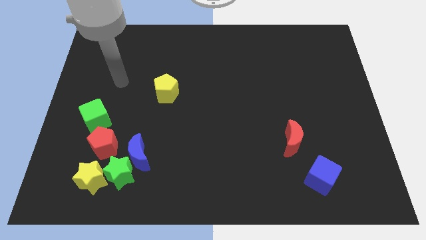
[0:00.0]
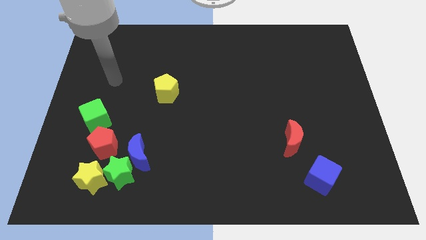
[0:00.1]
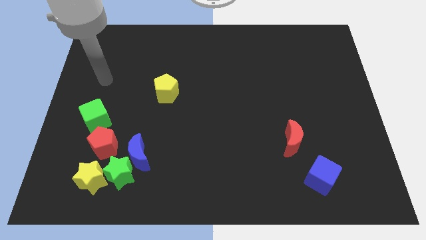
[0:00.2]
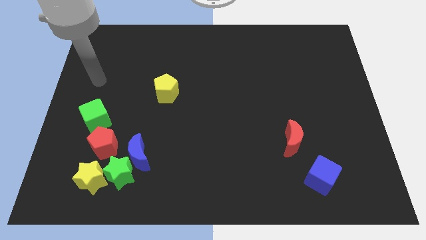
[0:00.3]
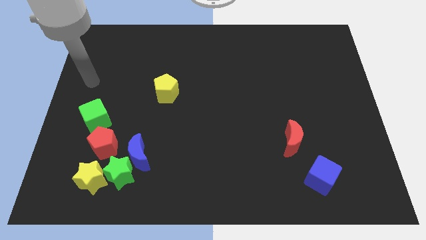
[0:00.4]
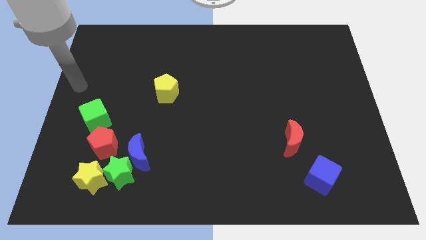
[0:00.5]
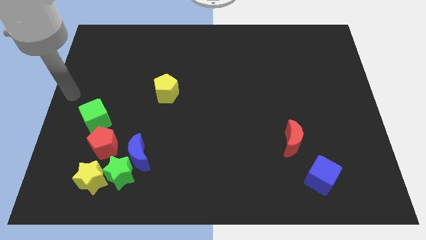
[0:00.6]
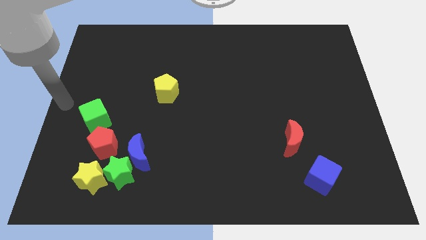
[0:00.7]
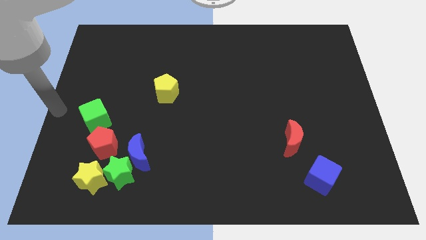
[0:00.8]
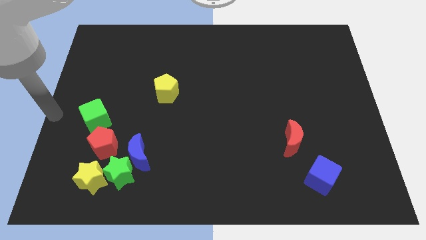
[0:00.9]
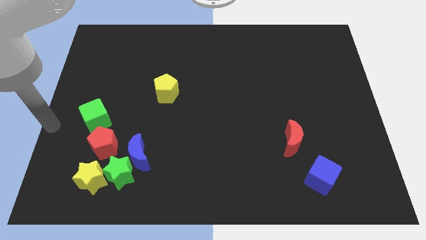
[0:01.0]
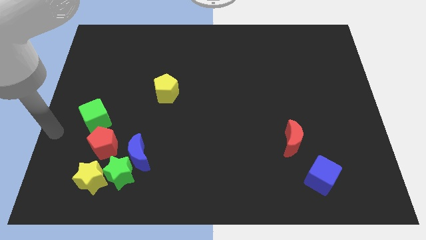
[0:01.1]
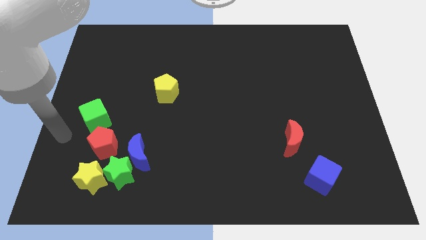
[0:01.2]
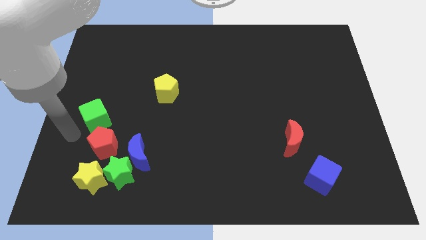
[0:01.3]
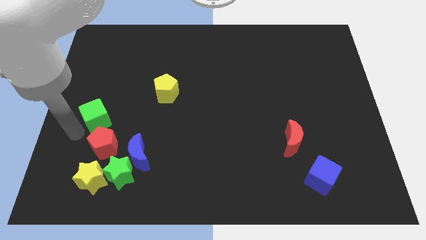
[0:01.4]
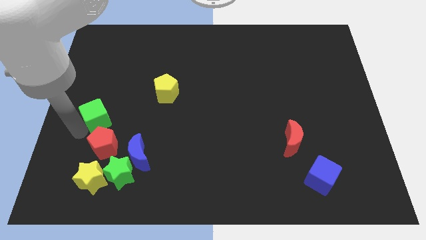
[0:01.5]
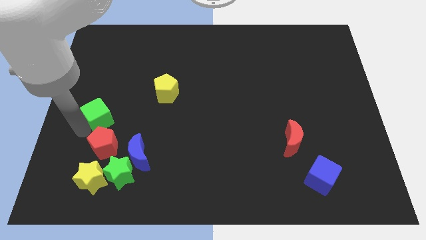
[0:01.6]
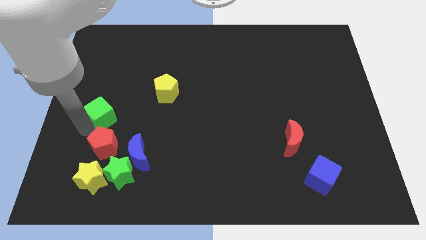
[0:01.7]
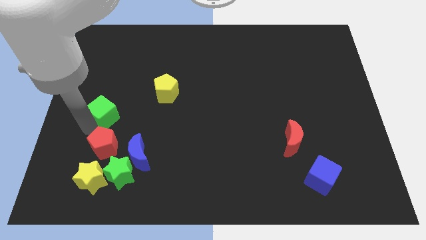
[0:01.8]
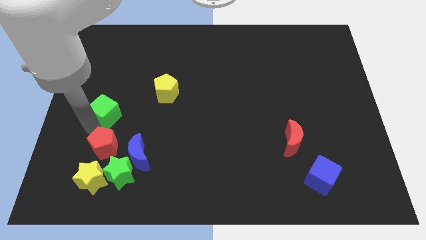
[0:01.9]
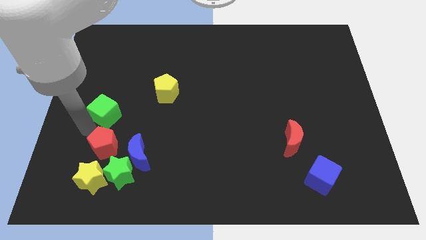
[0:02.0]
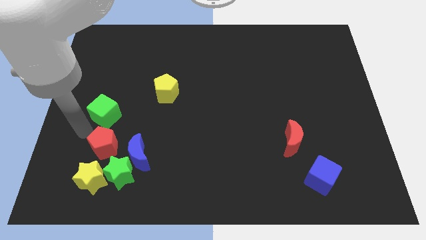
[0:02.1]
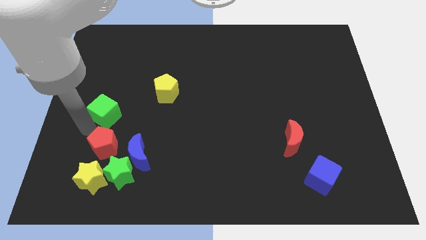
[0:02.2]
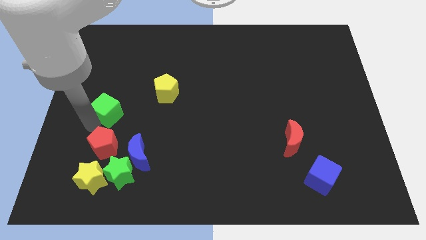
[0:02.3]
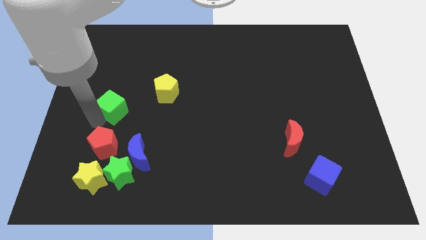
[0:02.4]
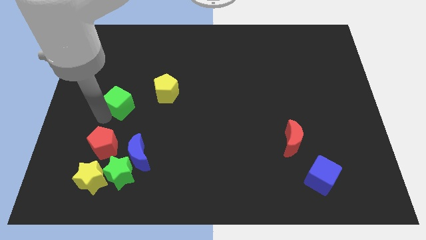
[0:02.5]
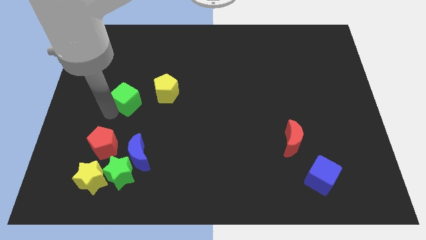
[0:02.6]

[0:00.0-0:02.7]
slide the green cube up and to the right diagonally a little bit

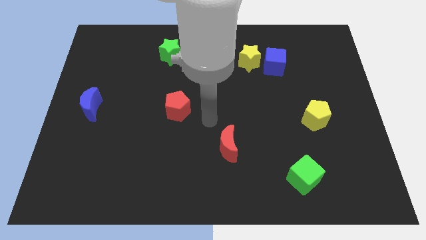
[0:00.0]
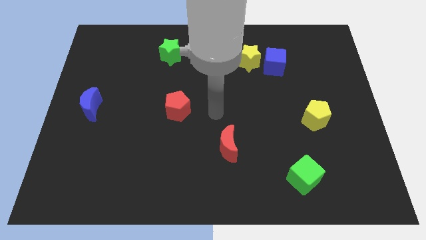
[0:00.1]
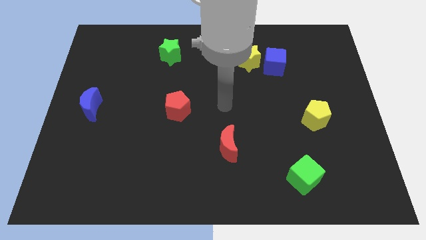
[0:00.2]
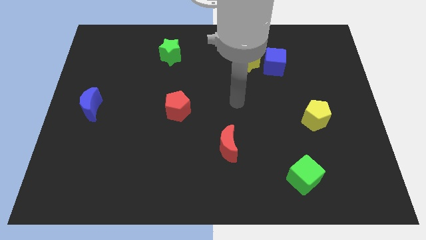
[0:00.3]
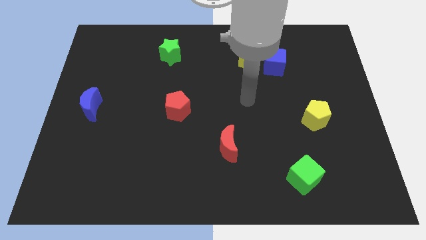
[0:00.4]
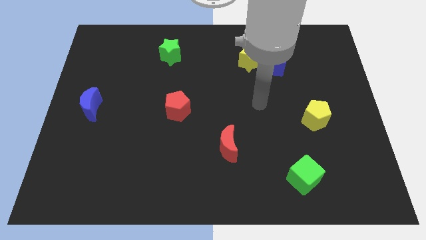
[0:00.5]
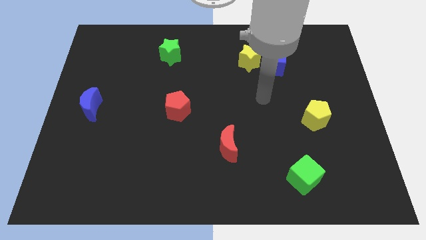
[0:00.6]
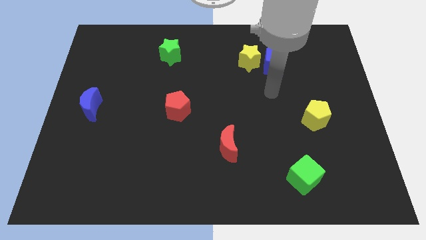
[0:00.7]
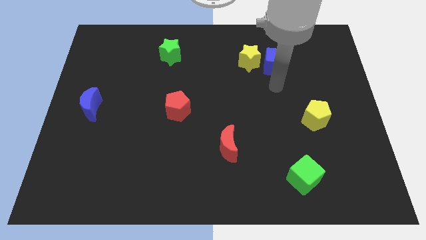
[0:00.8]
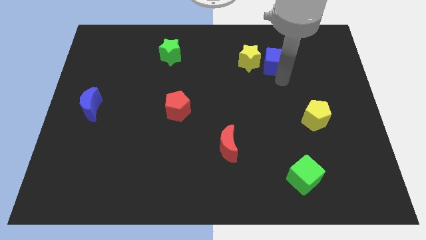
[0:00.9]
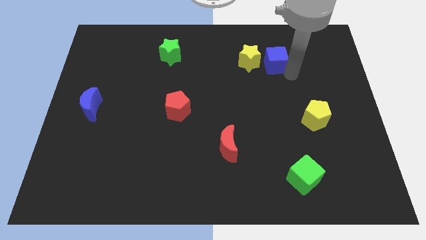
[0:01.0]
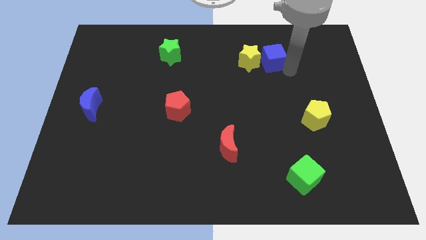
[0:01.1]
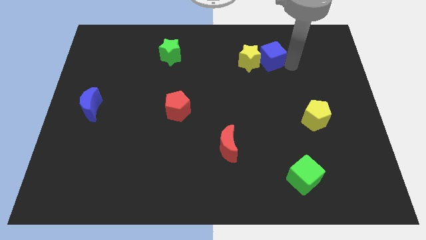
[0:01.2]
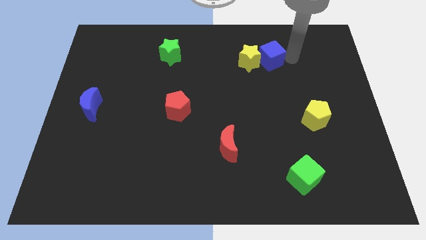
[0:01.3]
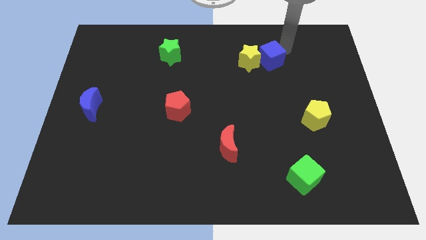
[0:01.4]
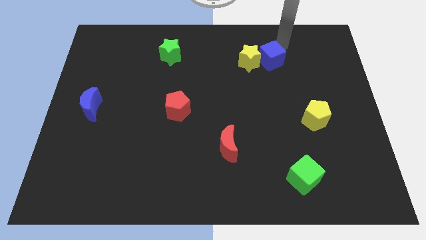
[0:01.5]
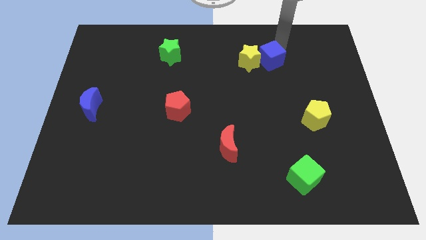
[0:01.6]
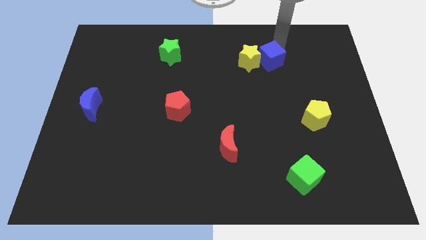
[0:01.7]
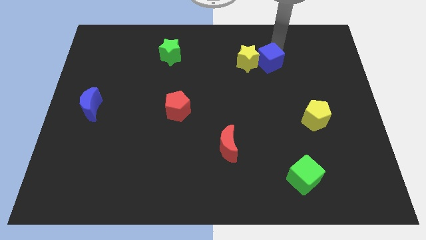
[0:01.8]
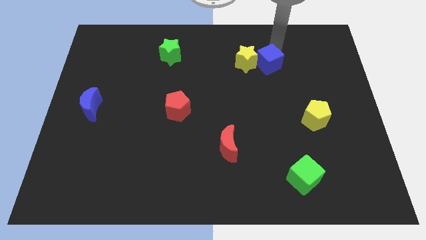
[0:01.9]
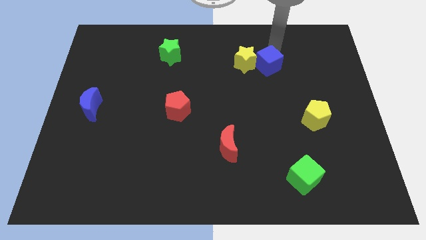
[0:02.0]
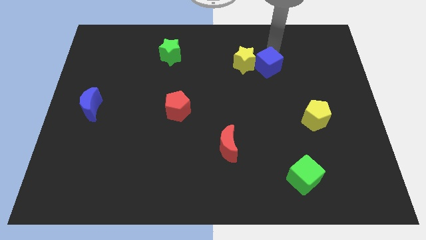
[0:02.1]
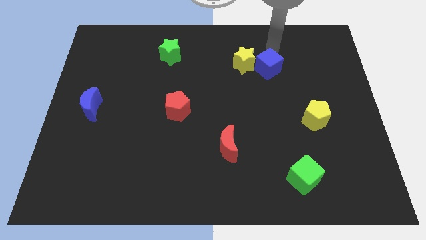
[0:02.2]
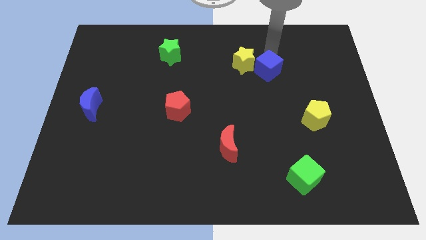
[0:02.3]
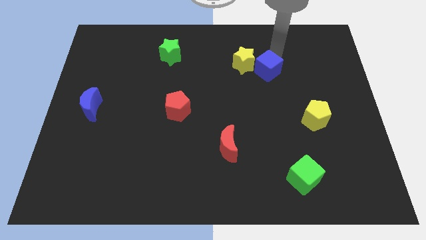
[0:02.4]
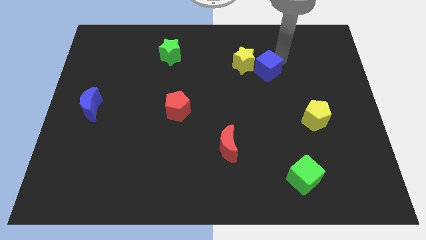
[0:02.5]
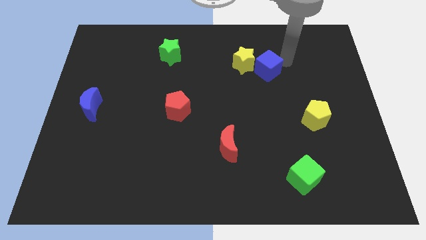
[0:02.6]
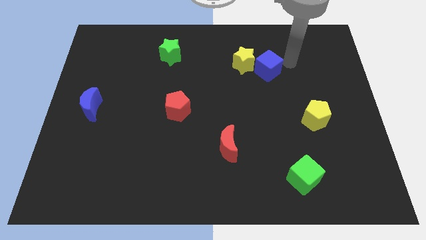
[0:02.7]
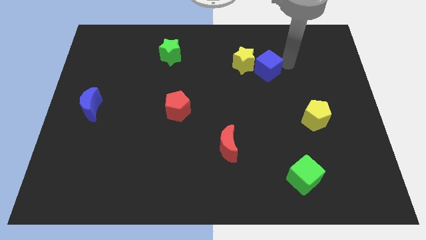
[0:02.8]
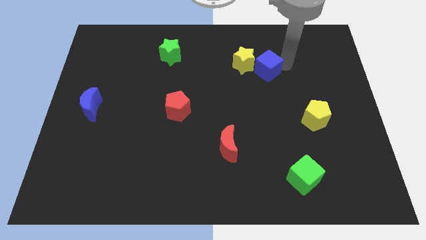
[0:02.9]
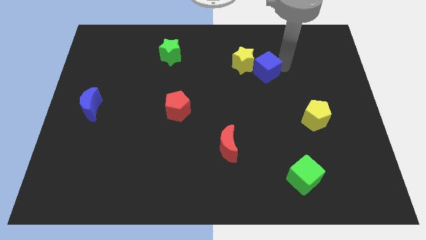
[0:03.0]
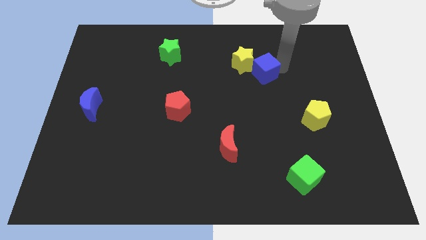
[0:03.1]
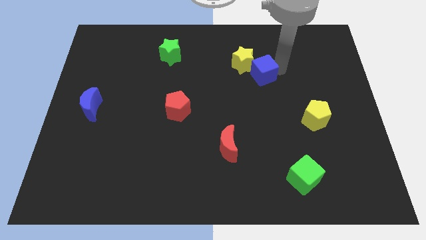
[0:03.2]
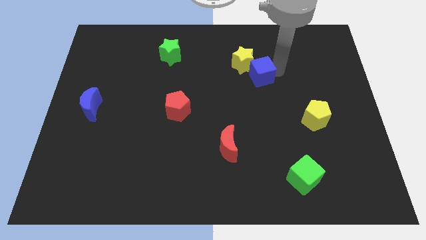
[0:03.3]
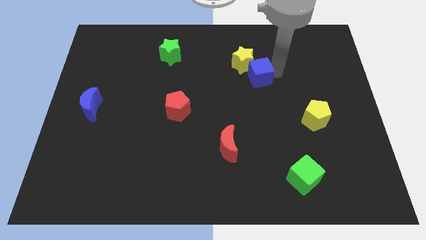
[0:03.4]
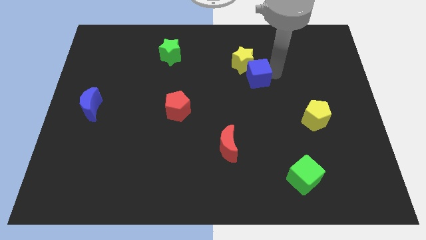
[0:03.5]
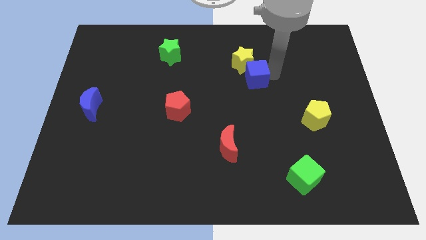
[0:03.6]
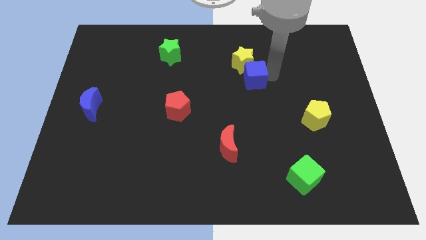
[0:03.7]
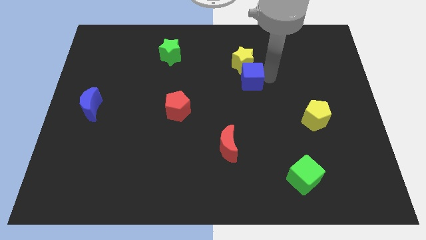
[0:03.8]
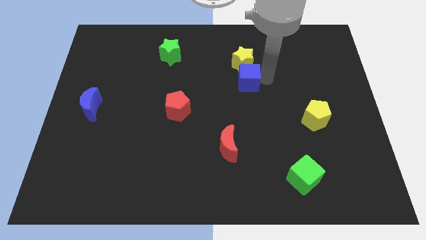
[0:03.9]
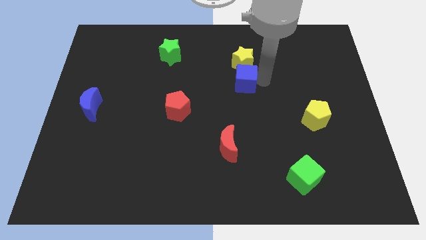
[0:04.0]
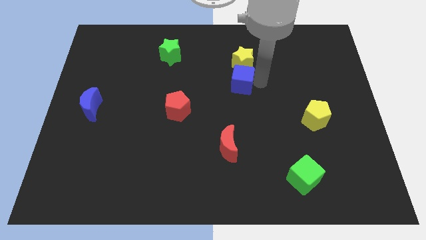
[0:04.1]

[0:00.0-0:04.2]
push the blue cube to the left a little bit

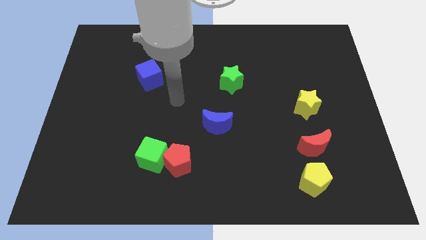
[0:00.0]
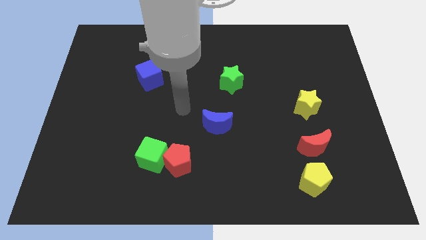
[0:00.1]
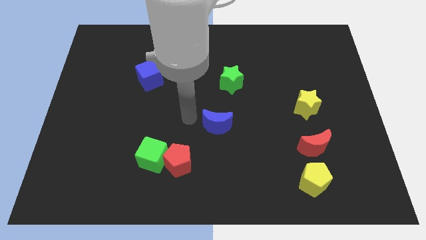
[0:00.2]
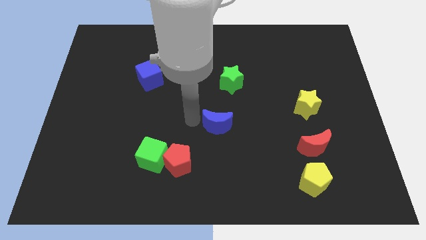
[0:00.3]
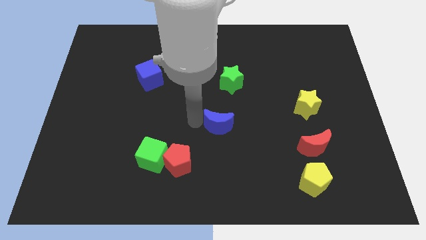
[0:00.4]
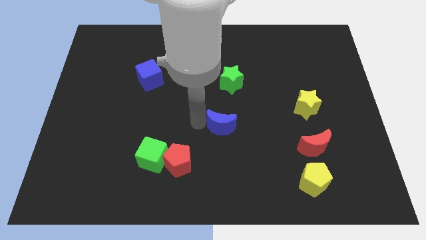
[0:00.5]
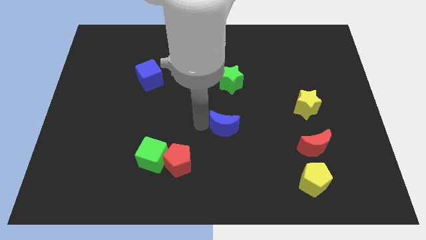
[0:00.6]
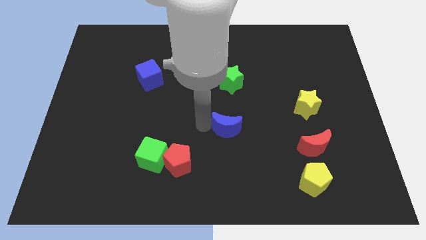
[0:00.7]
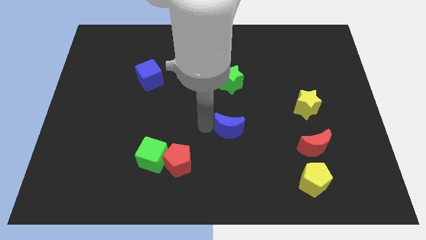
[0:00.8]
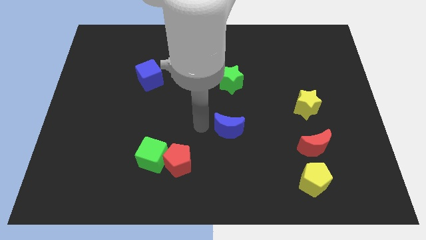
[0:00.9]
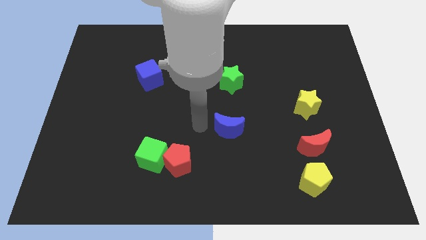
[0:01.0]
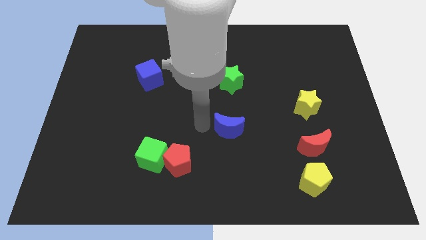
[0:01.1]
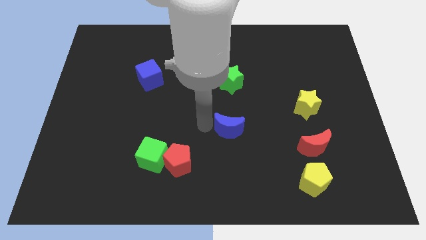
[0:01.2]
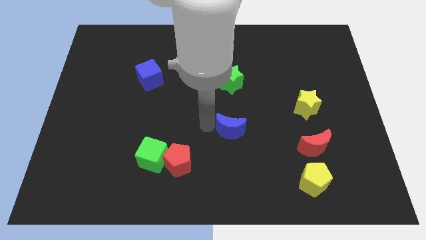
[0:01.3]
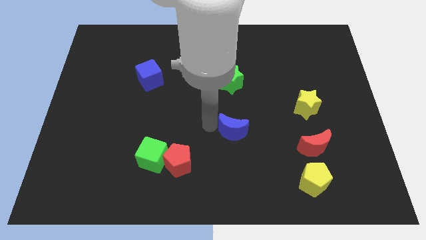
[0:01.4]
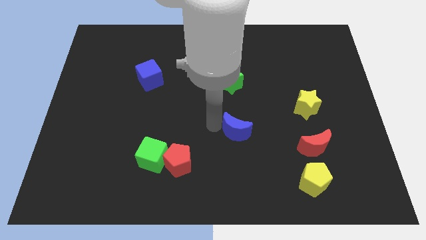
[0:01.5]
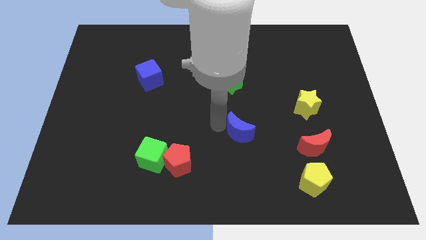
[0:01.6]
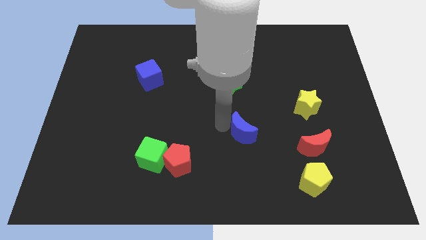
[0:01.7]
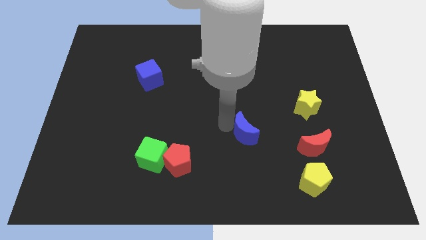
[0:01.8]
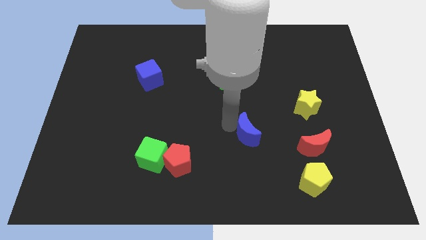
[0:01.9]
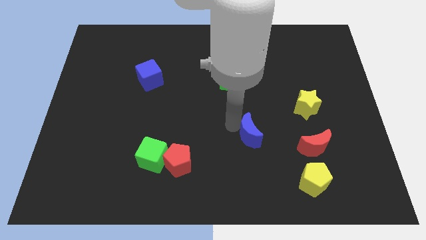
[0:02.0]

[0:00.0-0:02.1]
move the blue moon somewhat right
